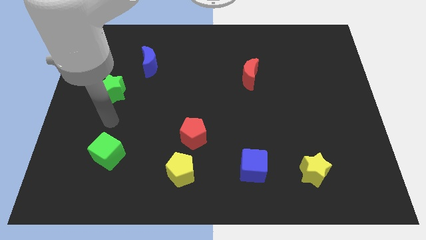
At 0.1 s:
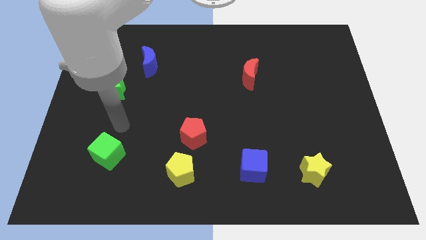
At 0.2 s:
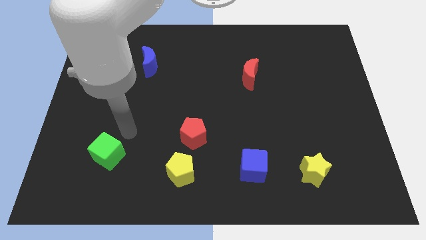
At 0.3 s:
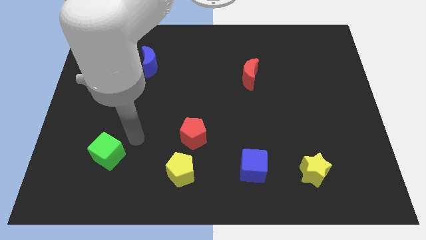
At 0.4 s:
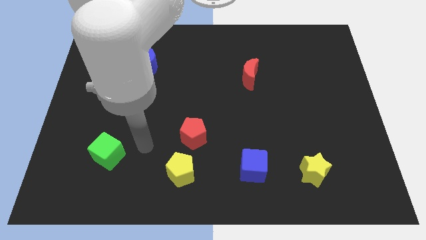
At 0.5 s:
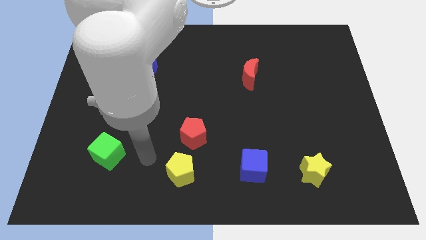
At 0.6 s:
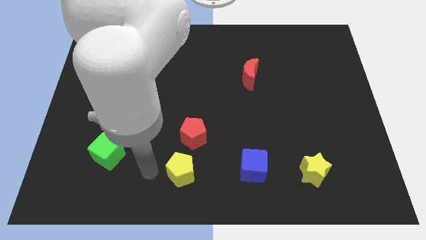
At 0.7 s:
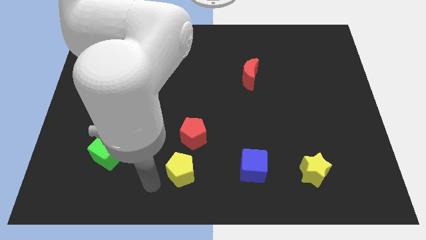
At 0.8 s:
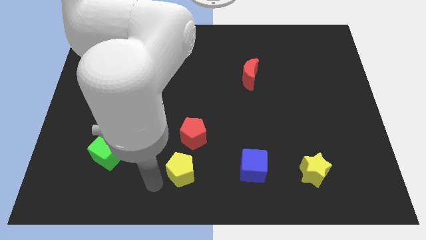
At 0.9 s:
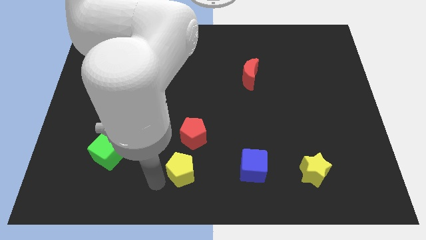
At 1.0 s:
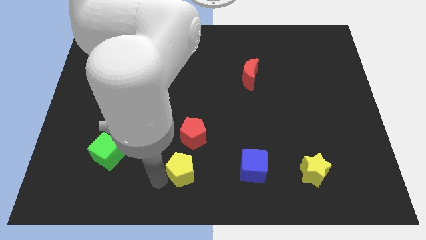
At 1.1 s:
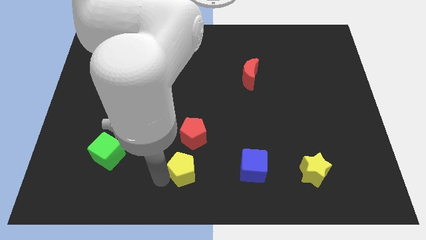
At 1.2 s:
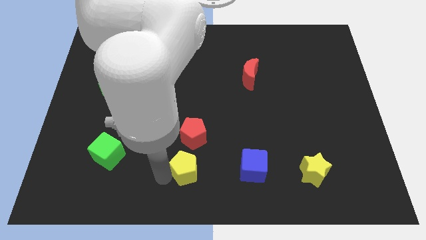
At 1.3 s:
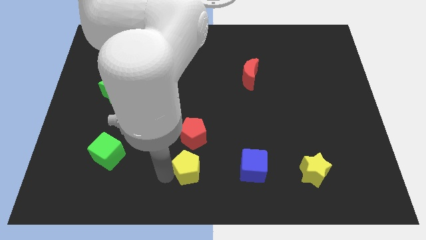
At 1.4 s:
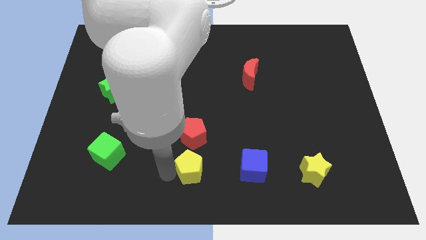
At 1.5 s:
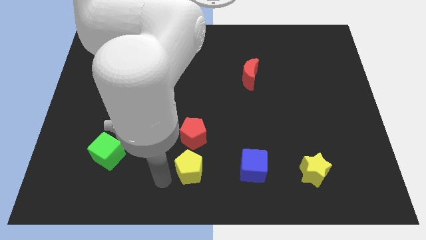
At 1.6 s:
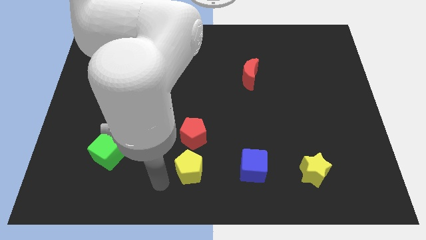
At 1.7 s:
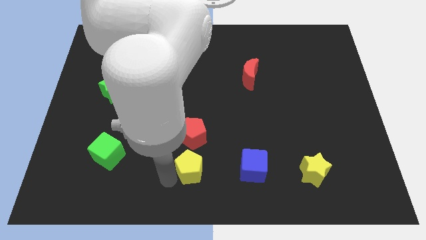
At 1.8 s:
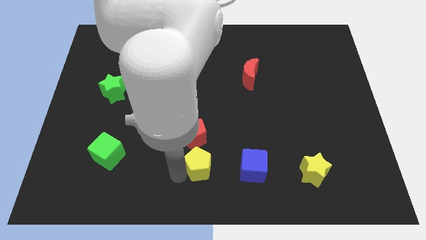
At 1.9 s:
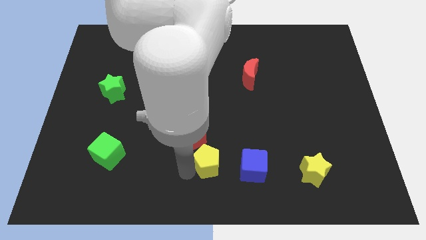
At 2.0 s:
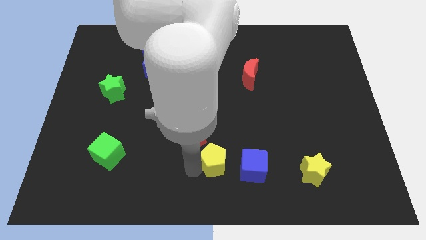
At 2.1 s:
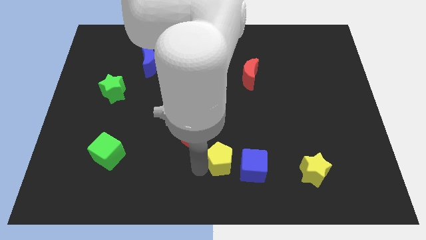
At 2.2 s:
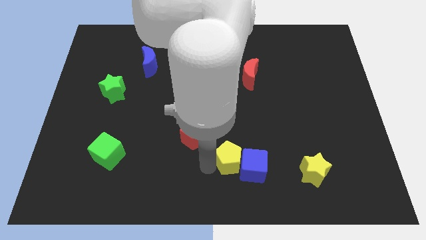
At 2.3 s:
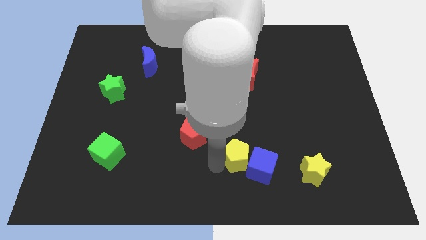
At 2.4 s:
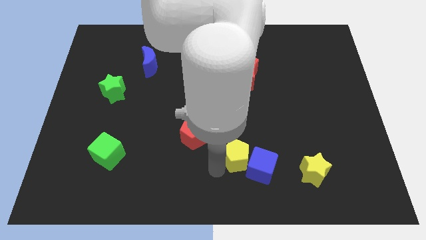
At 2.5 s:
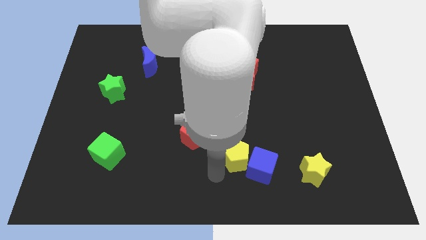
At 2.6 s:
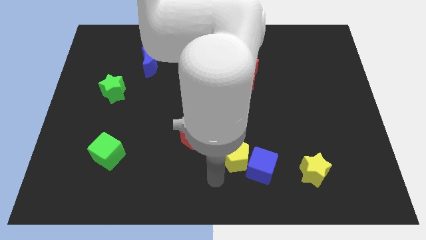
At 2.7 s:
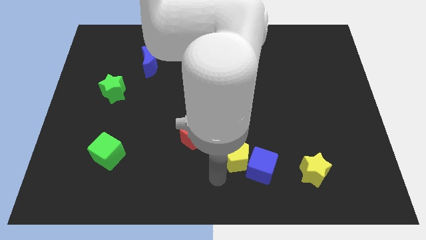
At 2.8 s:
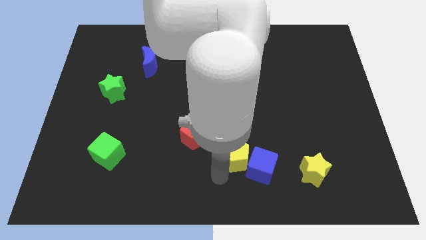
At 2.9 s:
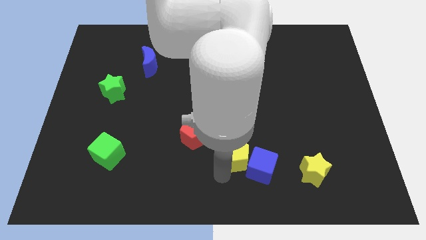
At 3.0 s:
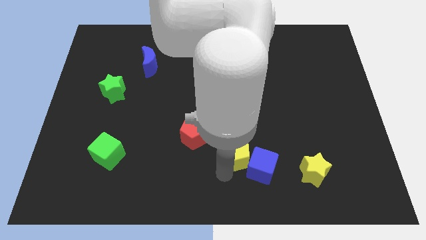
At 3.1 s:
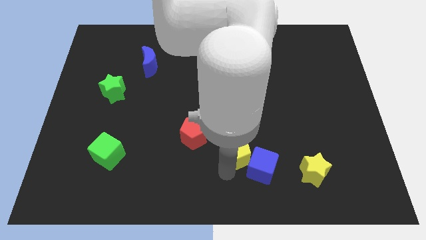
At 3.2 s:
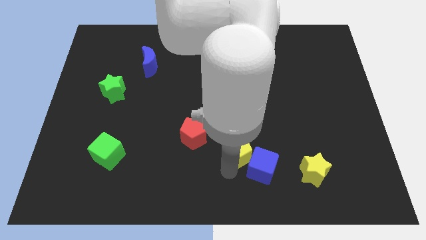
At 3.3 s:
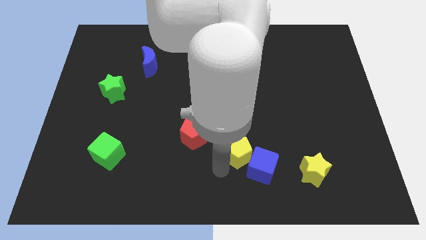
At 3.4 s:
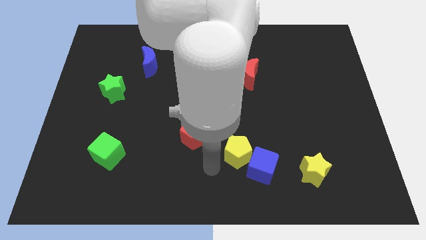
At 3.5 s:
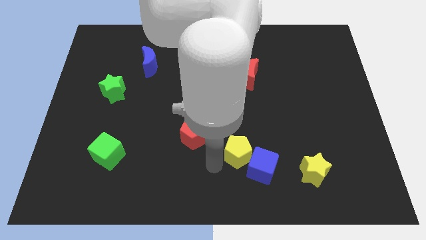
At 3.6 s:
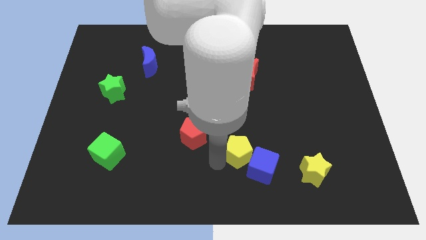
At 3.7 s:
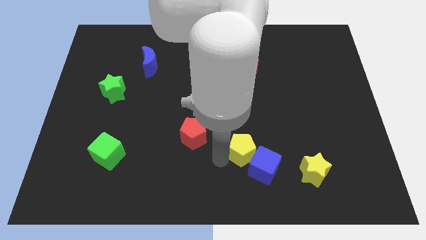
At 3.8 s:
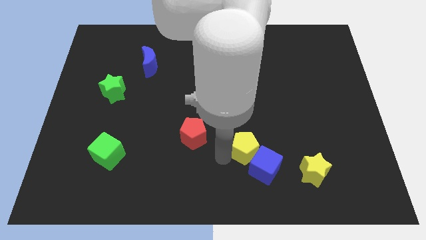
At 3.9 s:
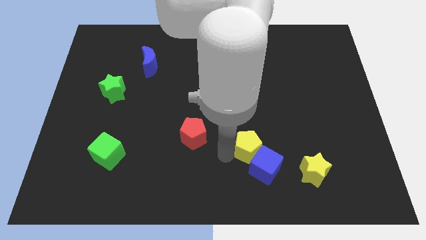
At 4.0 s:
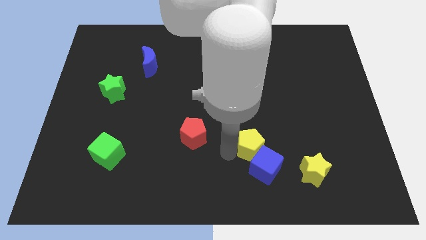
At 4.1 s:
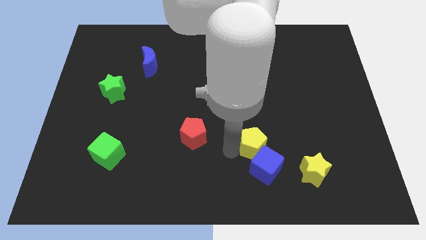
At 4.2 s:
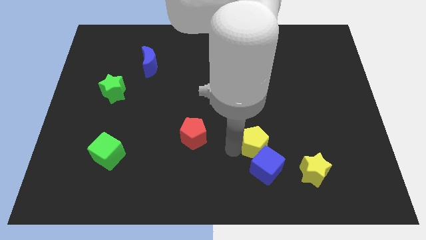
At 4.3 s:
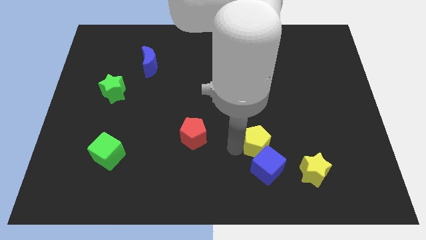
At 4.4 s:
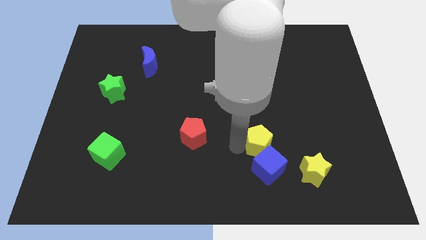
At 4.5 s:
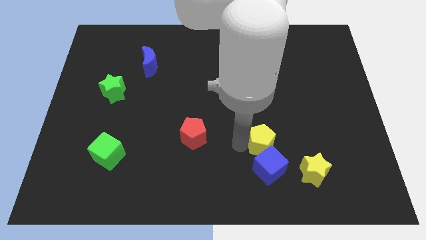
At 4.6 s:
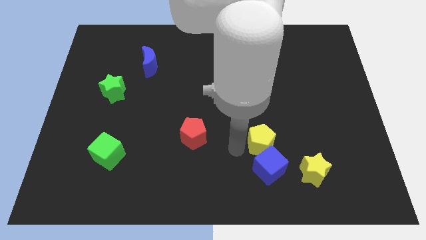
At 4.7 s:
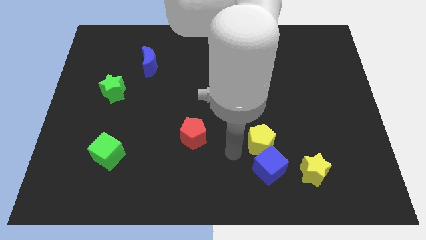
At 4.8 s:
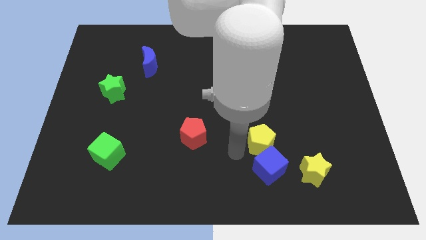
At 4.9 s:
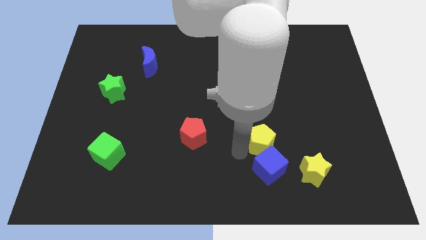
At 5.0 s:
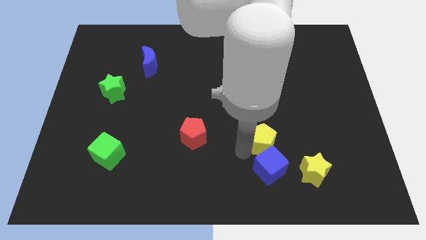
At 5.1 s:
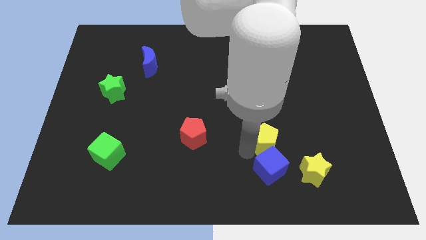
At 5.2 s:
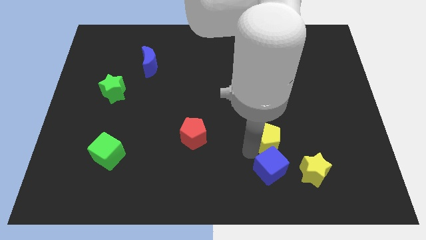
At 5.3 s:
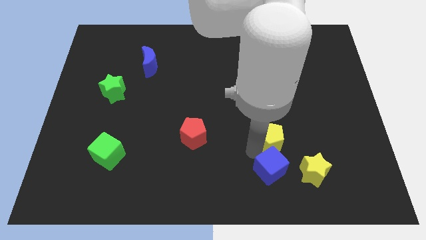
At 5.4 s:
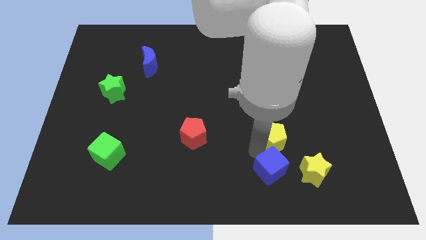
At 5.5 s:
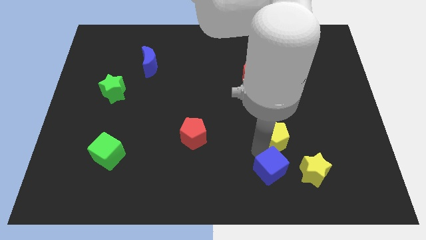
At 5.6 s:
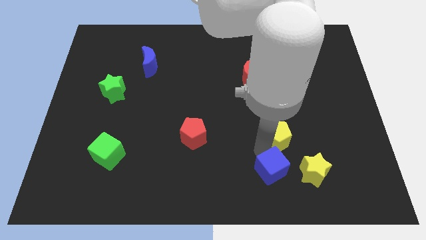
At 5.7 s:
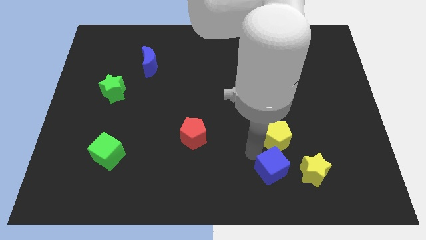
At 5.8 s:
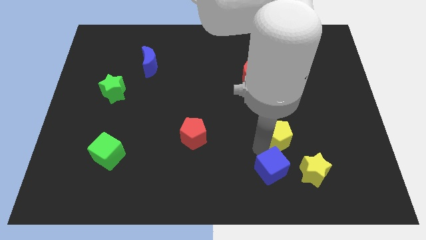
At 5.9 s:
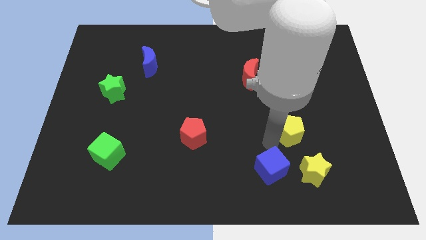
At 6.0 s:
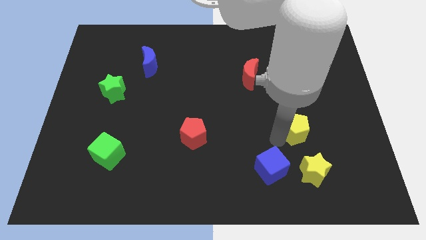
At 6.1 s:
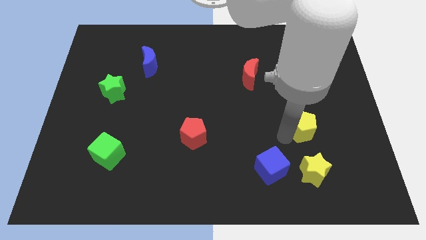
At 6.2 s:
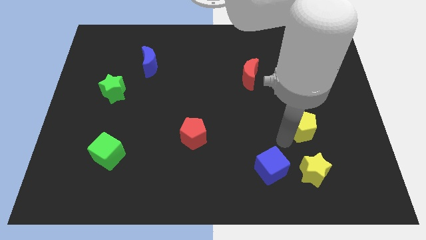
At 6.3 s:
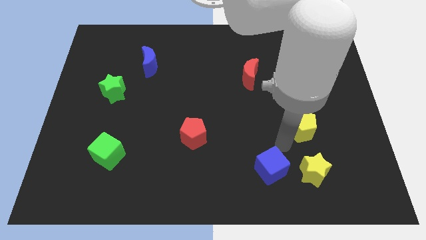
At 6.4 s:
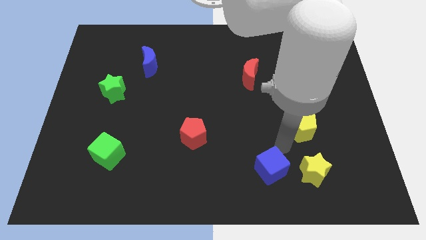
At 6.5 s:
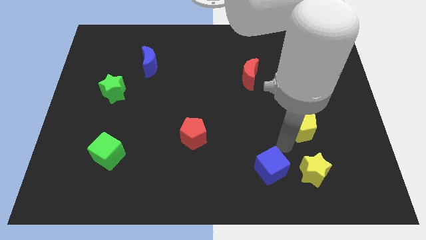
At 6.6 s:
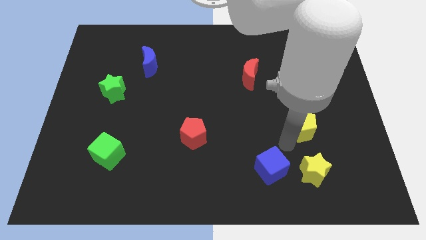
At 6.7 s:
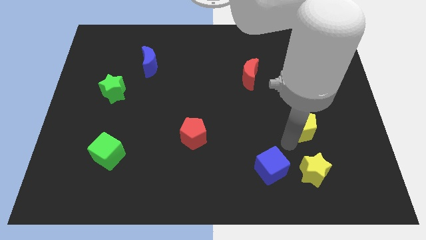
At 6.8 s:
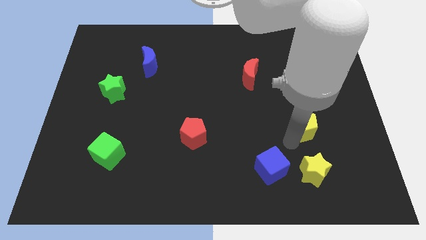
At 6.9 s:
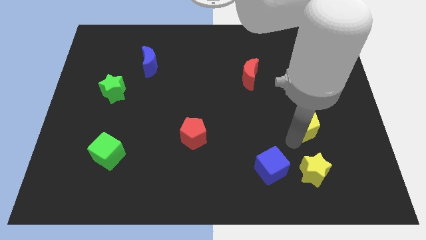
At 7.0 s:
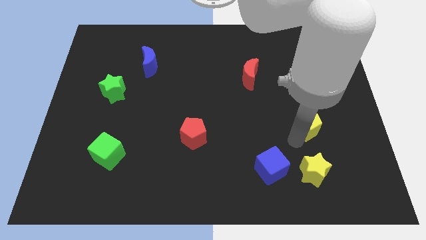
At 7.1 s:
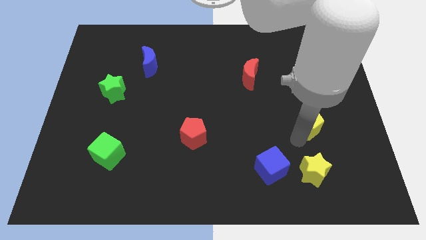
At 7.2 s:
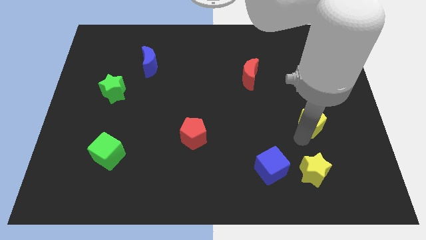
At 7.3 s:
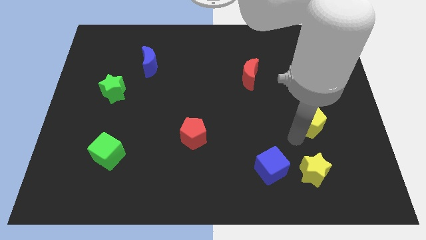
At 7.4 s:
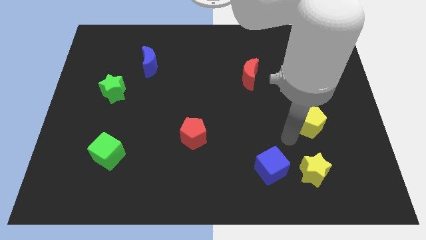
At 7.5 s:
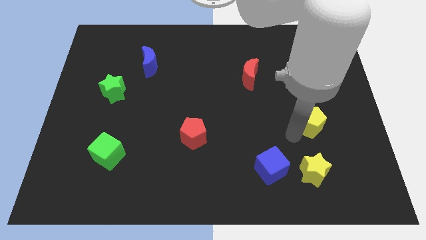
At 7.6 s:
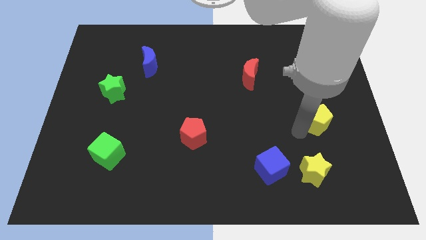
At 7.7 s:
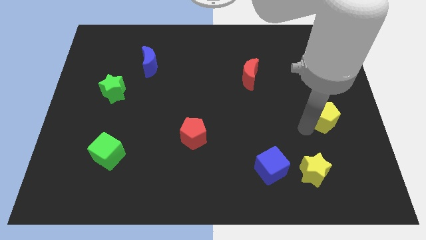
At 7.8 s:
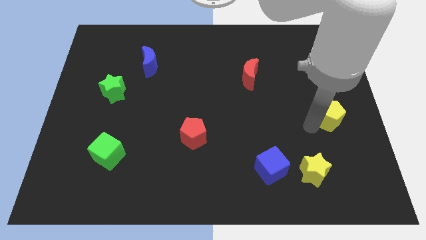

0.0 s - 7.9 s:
push the yellow pentagon to the right side of the board

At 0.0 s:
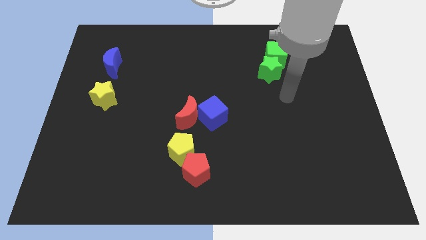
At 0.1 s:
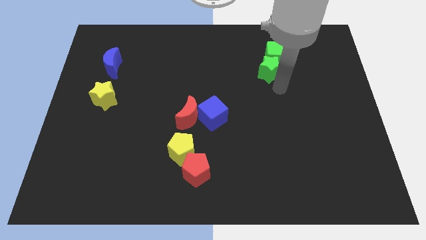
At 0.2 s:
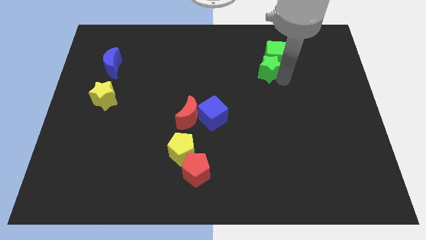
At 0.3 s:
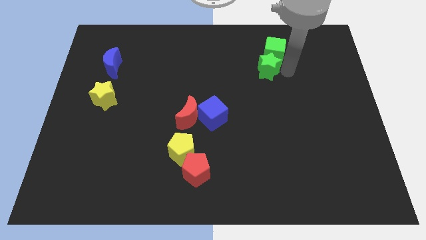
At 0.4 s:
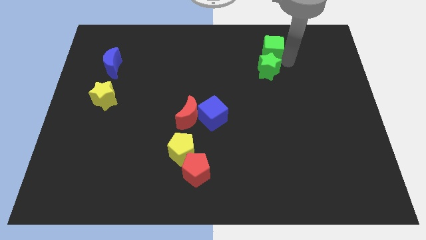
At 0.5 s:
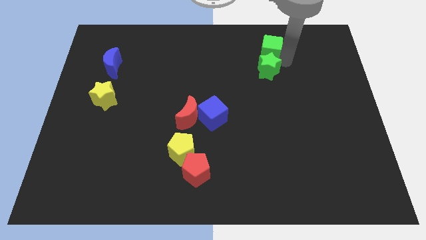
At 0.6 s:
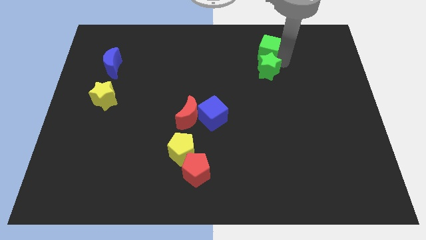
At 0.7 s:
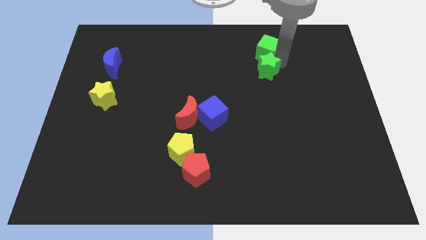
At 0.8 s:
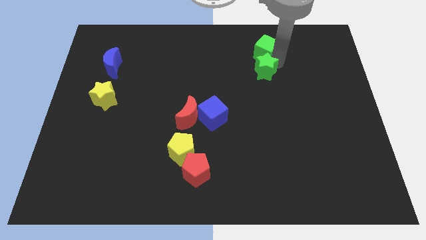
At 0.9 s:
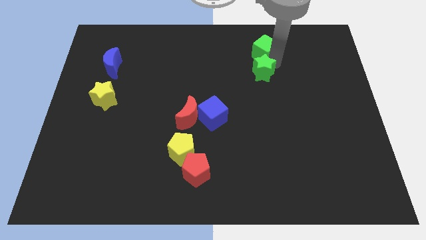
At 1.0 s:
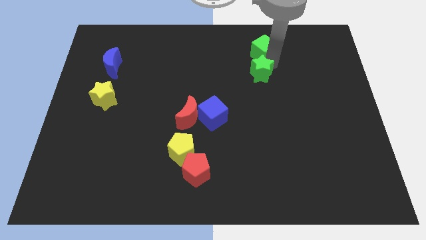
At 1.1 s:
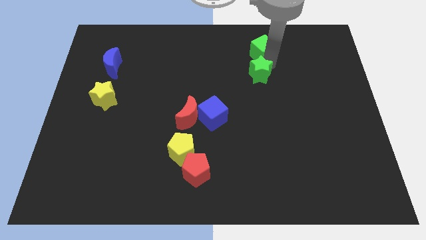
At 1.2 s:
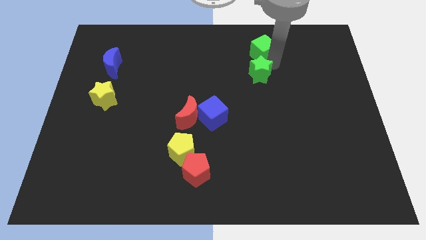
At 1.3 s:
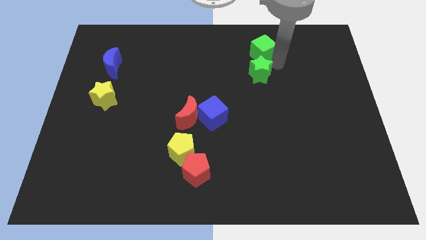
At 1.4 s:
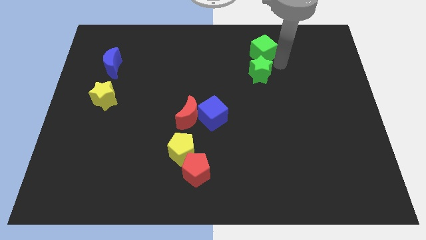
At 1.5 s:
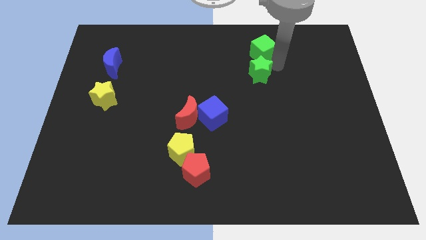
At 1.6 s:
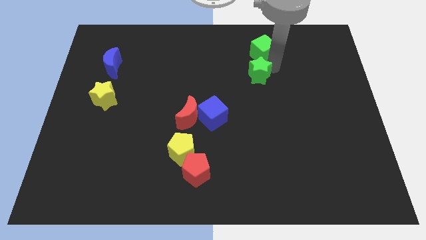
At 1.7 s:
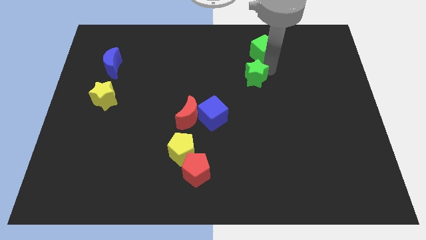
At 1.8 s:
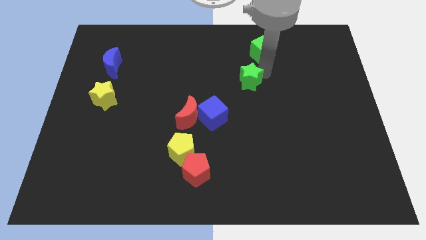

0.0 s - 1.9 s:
push the green star to the center of the board
